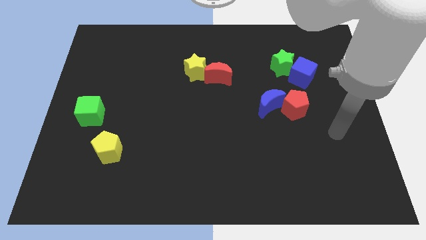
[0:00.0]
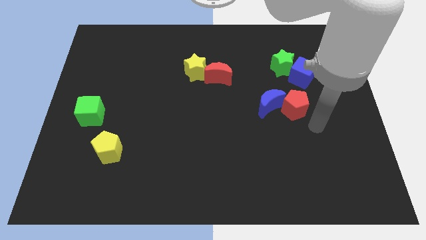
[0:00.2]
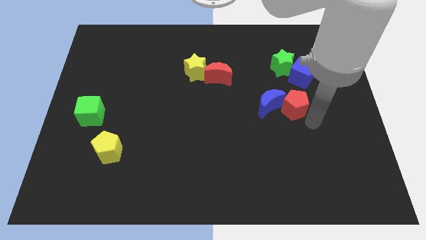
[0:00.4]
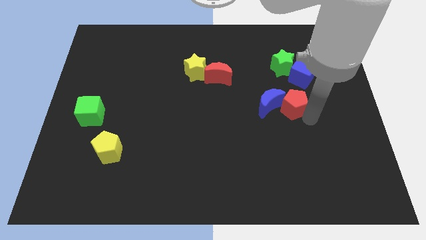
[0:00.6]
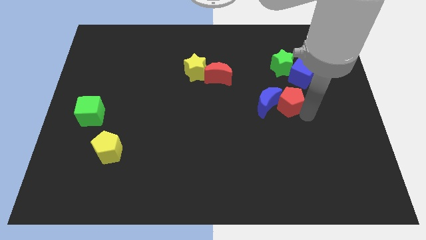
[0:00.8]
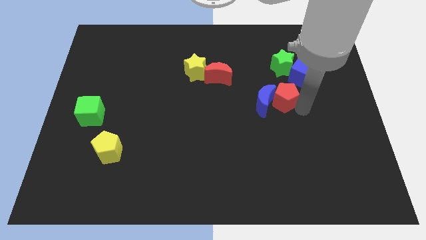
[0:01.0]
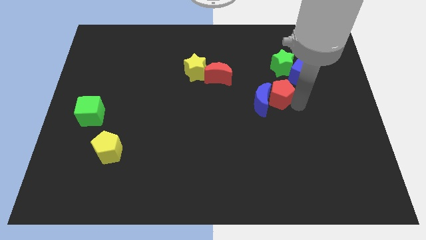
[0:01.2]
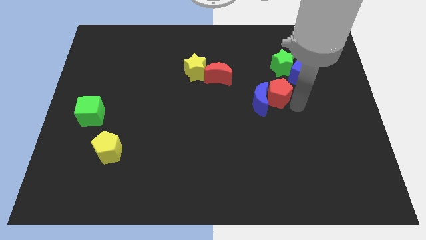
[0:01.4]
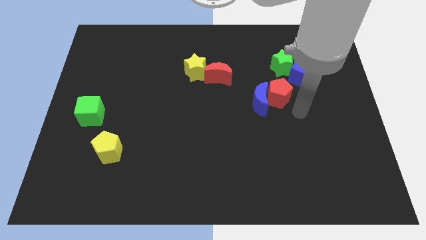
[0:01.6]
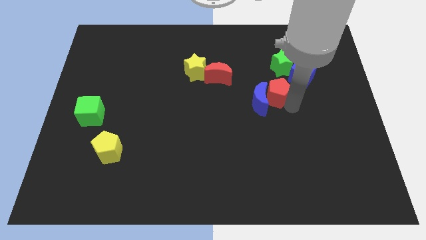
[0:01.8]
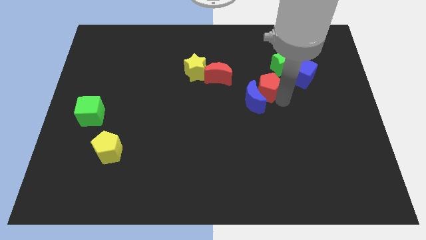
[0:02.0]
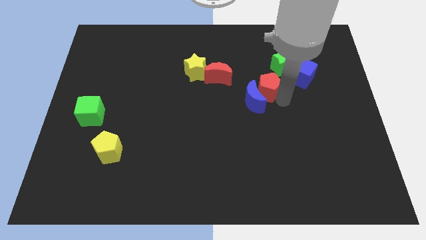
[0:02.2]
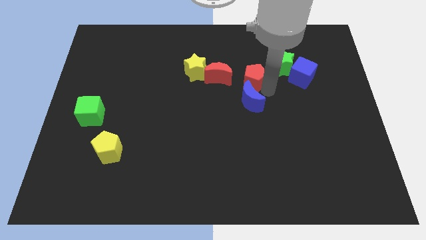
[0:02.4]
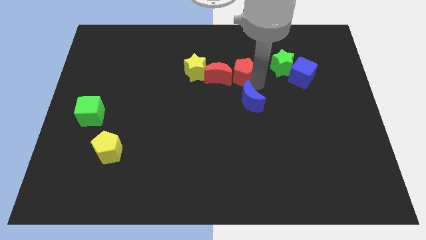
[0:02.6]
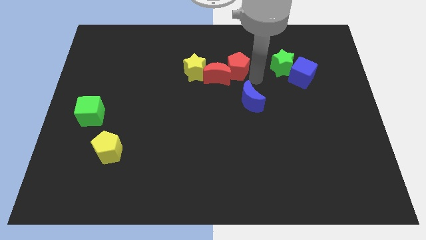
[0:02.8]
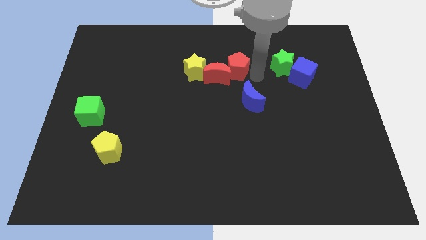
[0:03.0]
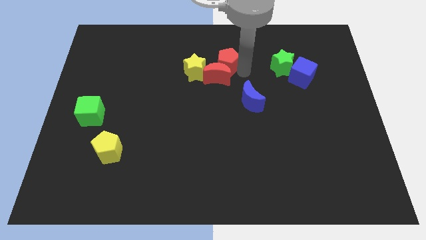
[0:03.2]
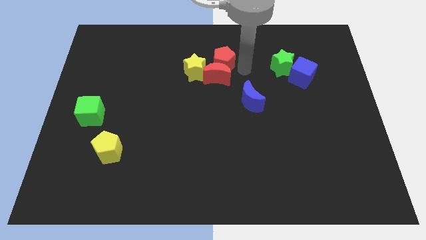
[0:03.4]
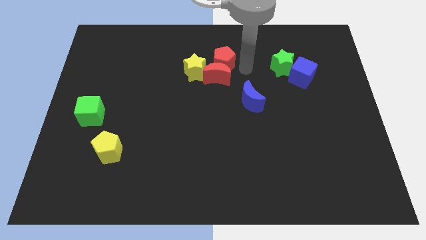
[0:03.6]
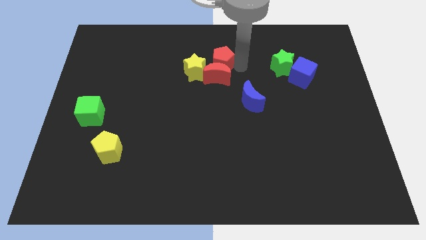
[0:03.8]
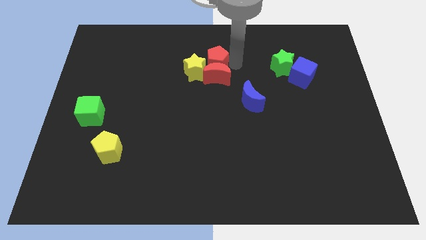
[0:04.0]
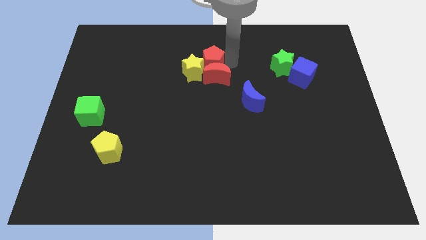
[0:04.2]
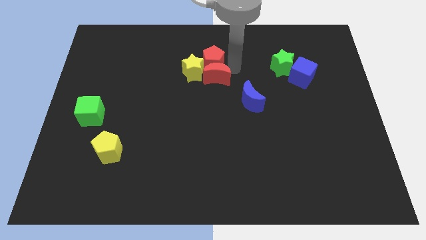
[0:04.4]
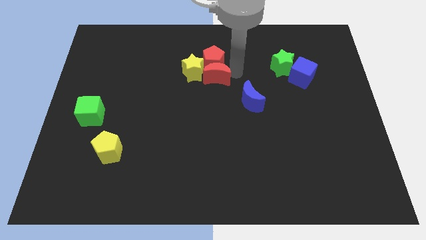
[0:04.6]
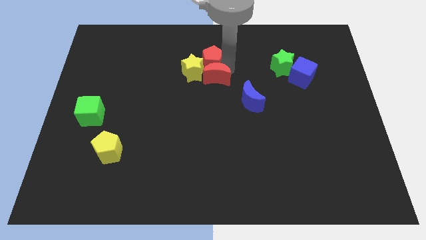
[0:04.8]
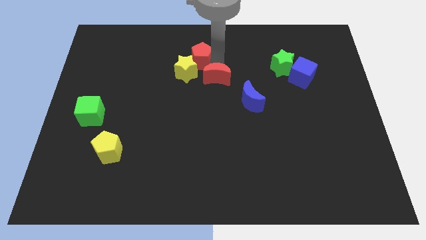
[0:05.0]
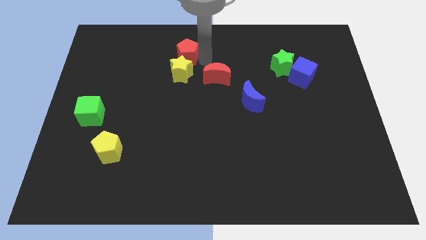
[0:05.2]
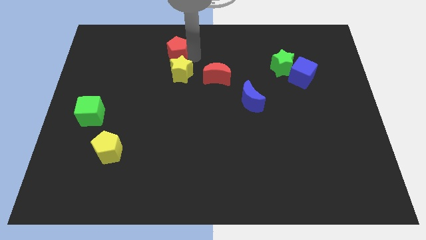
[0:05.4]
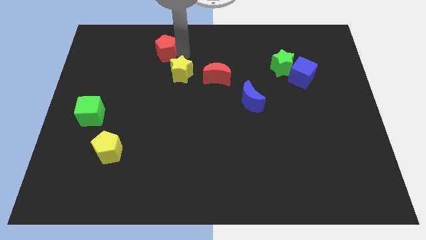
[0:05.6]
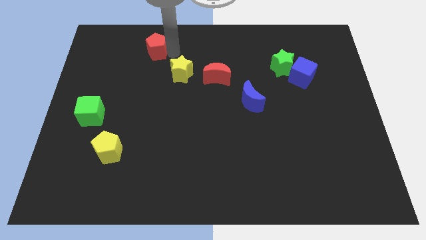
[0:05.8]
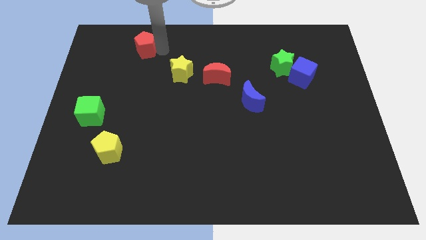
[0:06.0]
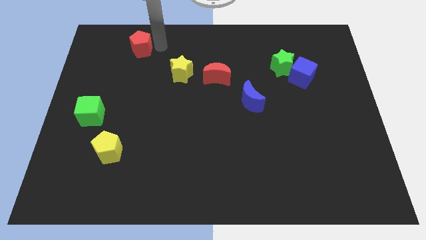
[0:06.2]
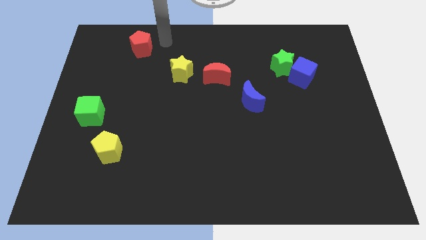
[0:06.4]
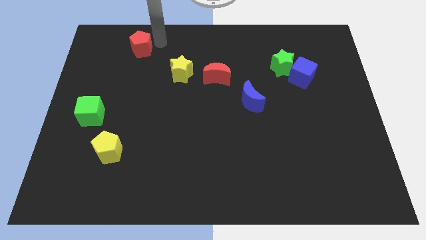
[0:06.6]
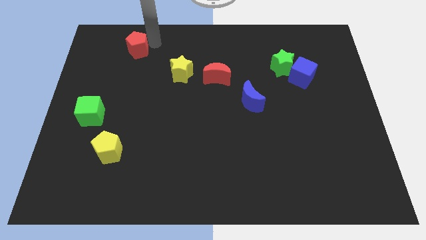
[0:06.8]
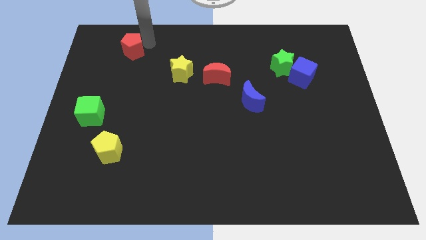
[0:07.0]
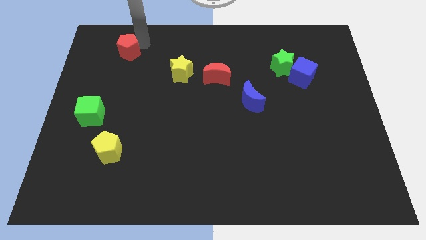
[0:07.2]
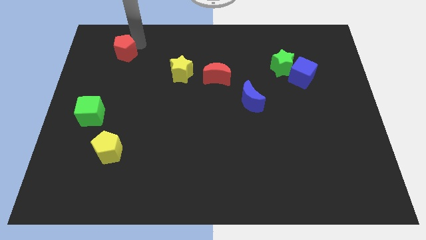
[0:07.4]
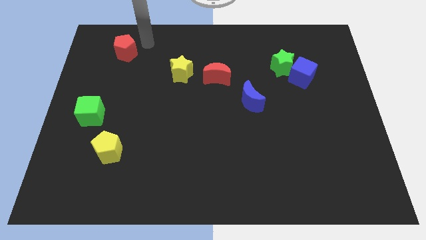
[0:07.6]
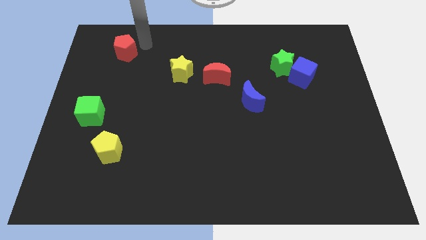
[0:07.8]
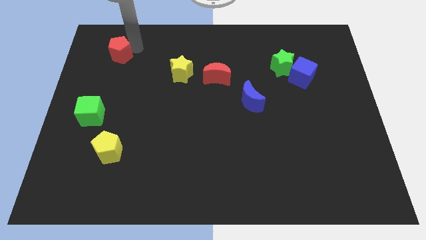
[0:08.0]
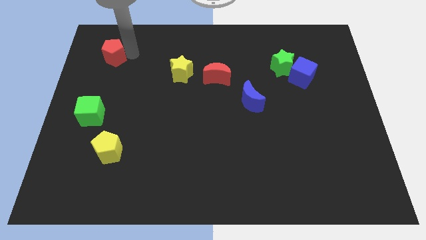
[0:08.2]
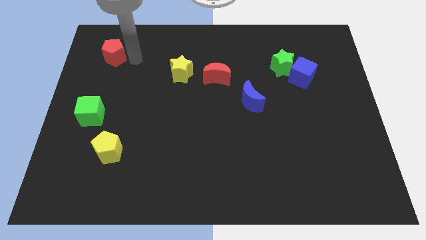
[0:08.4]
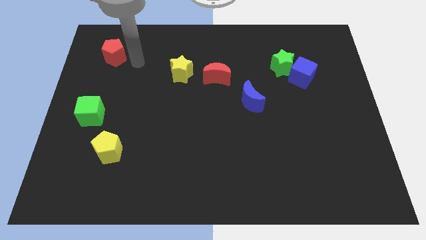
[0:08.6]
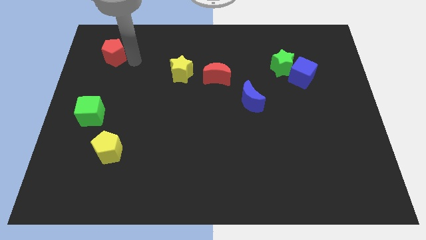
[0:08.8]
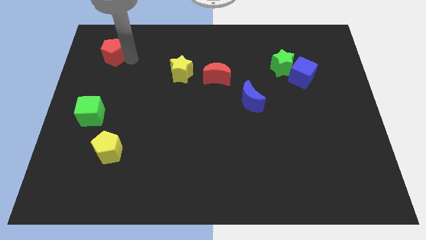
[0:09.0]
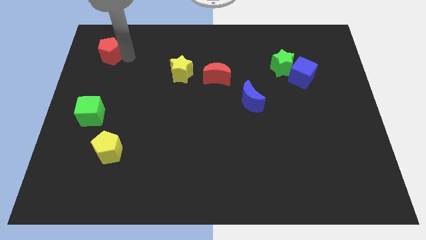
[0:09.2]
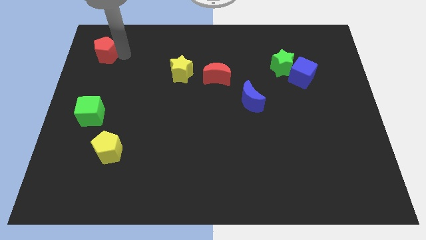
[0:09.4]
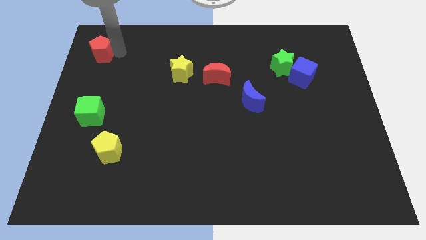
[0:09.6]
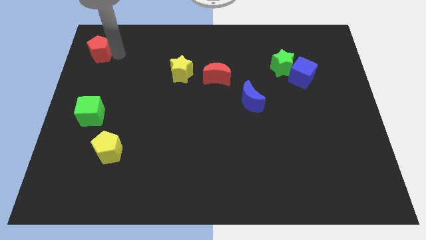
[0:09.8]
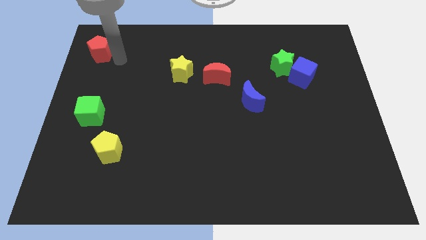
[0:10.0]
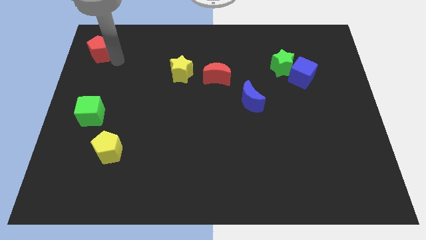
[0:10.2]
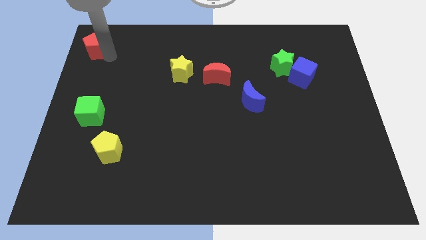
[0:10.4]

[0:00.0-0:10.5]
put the red pentagon to the upper left corner
